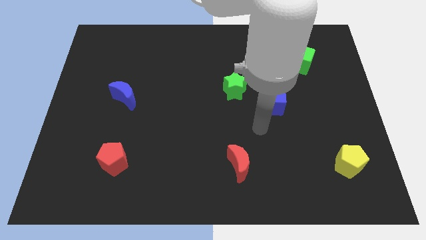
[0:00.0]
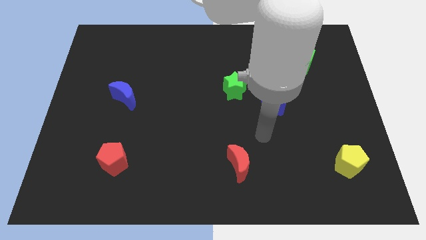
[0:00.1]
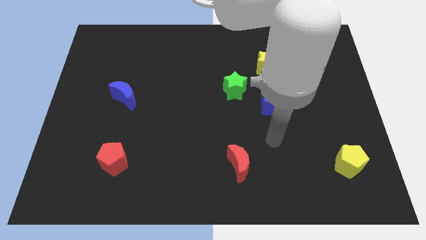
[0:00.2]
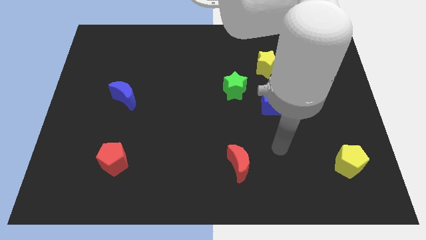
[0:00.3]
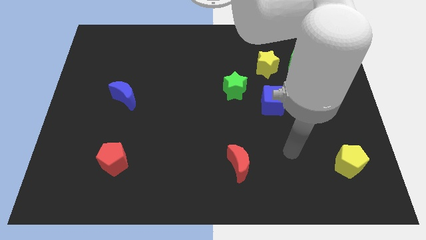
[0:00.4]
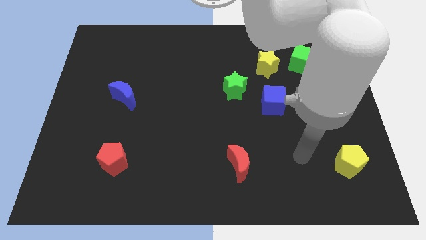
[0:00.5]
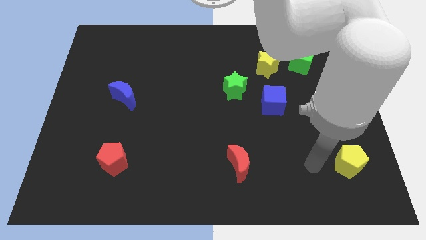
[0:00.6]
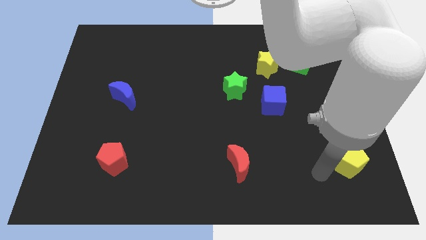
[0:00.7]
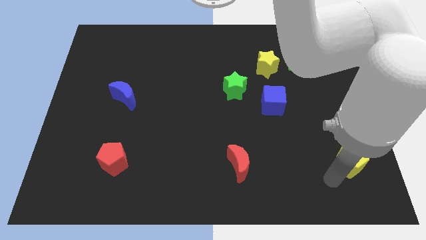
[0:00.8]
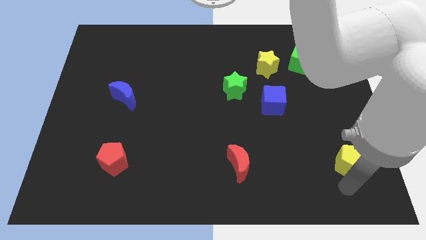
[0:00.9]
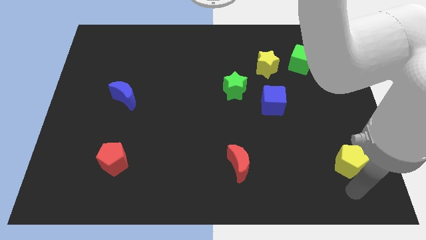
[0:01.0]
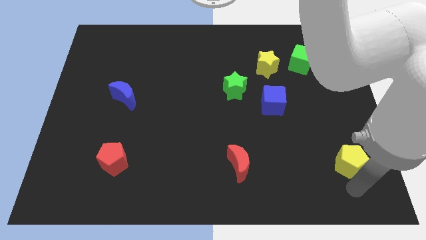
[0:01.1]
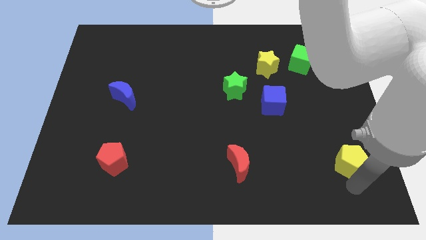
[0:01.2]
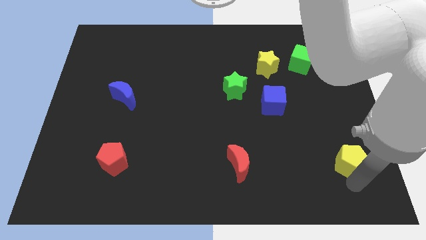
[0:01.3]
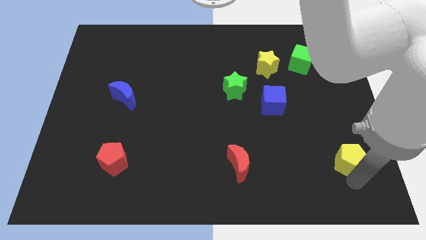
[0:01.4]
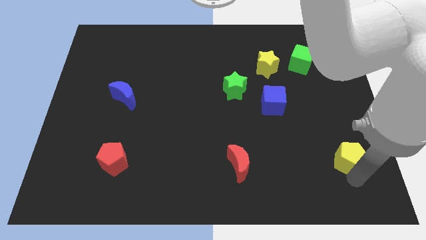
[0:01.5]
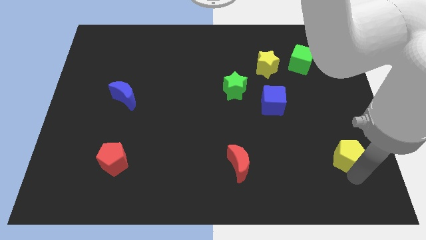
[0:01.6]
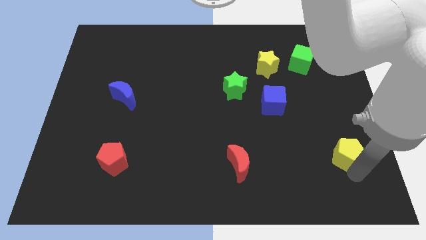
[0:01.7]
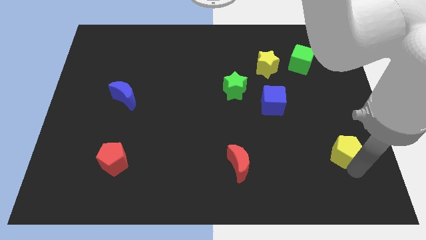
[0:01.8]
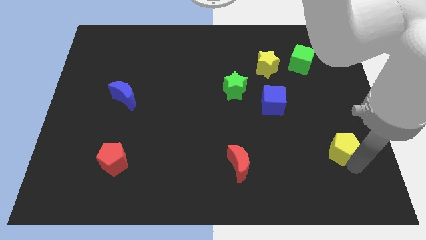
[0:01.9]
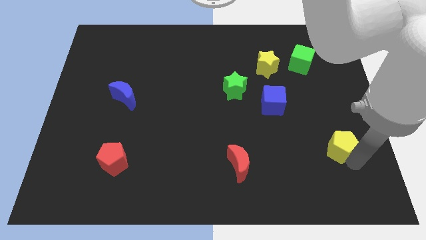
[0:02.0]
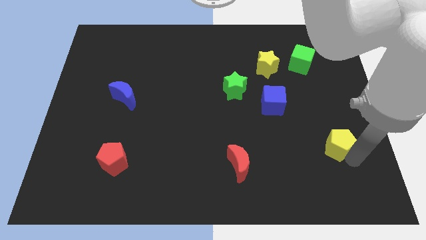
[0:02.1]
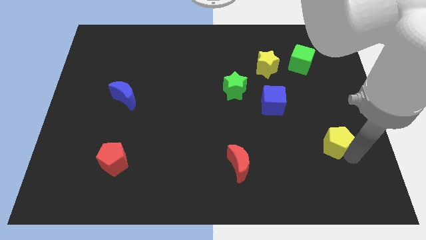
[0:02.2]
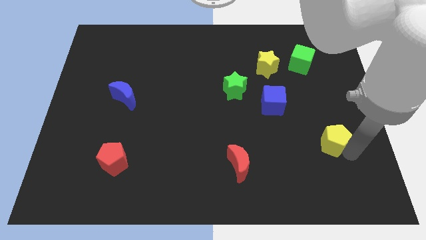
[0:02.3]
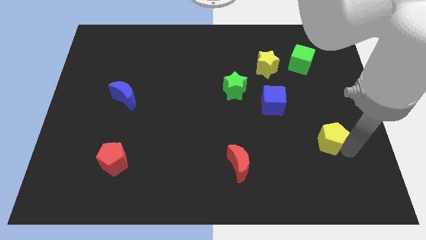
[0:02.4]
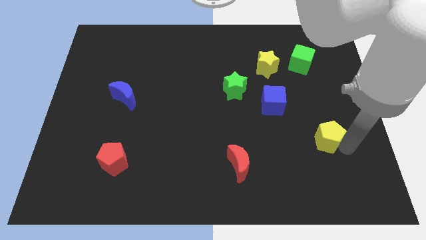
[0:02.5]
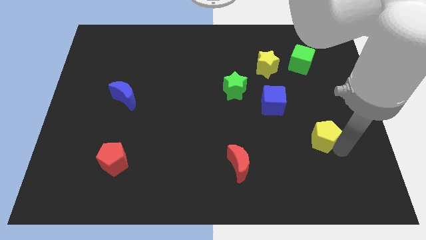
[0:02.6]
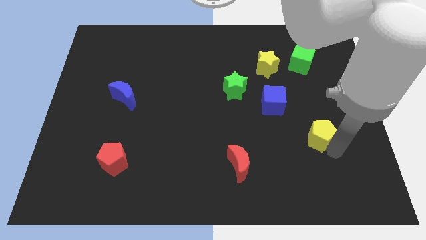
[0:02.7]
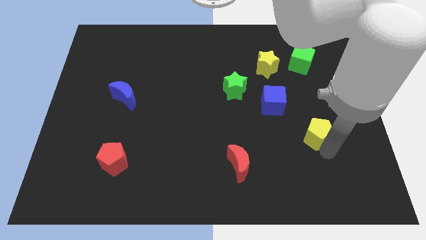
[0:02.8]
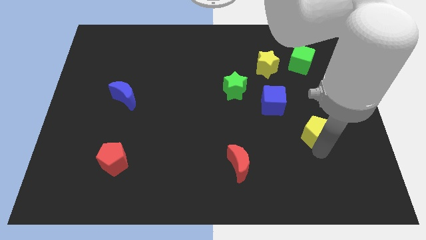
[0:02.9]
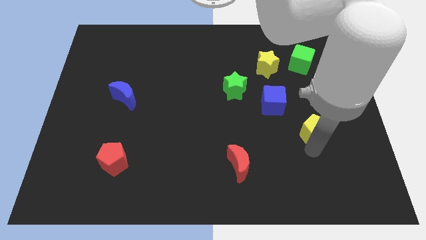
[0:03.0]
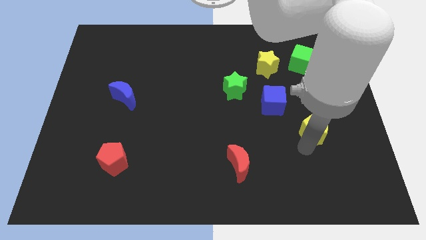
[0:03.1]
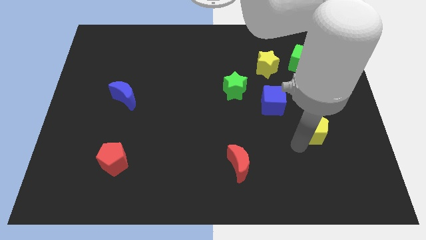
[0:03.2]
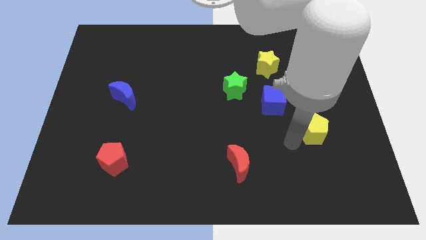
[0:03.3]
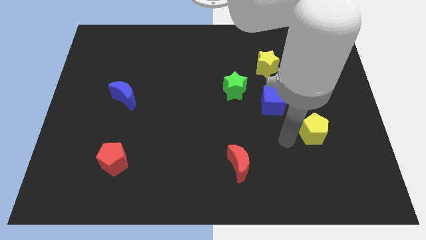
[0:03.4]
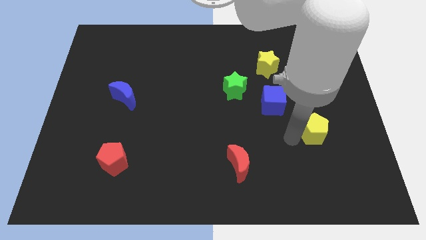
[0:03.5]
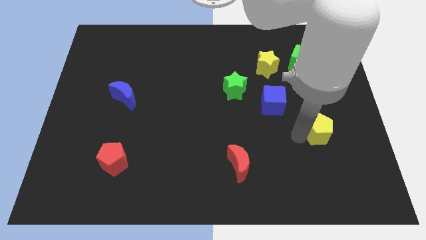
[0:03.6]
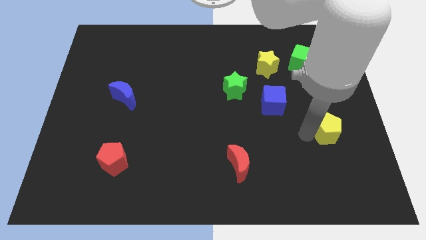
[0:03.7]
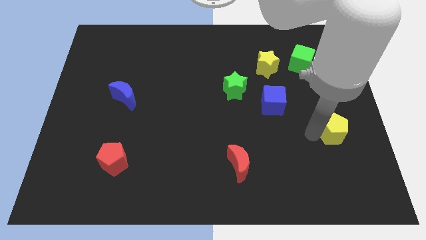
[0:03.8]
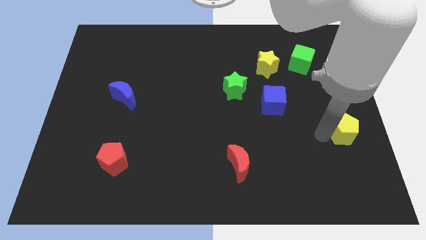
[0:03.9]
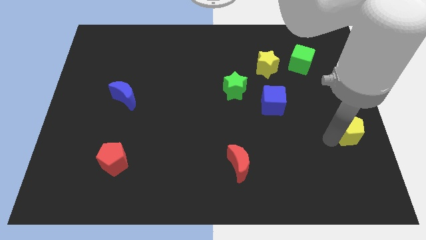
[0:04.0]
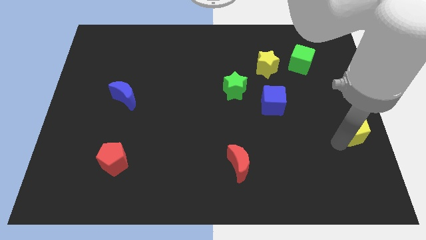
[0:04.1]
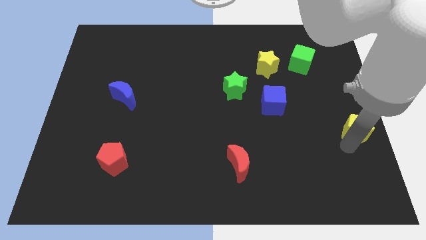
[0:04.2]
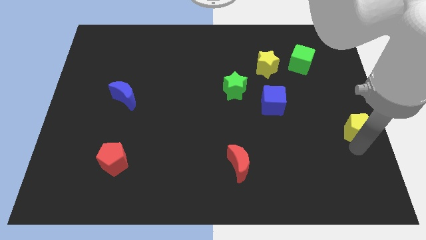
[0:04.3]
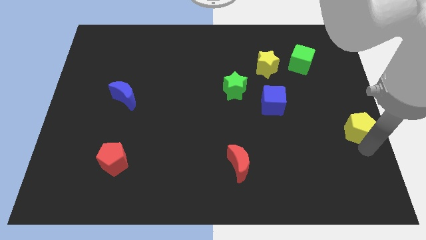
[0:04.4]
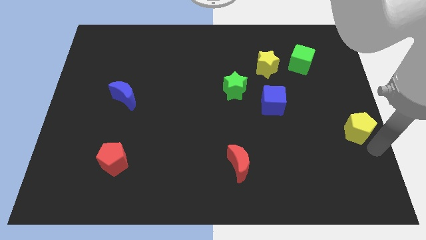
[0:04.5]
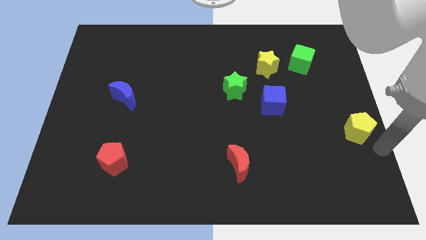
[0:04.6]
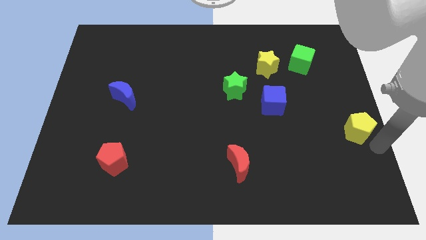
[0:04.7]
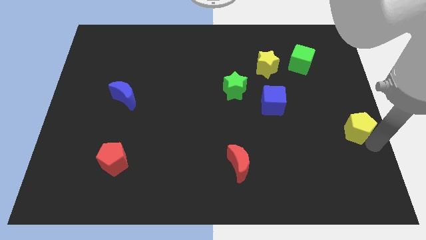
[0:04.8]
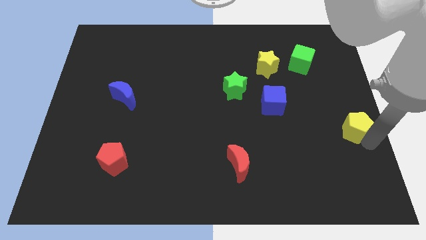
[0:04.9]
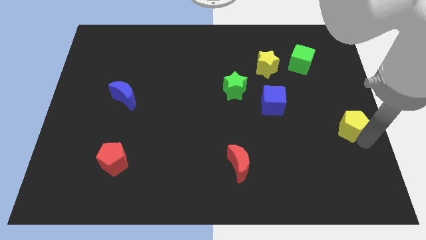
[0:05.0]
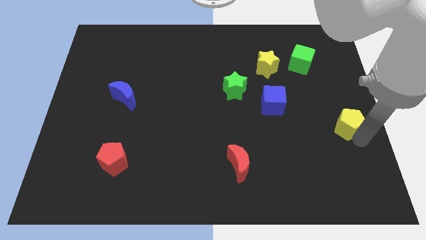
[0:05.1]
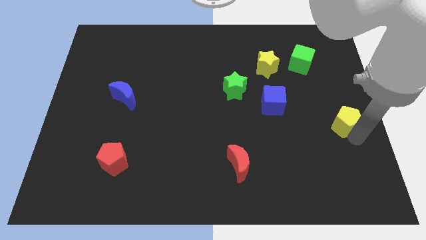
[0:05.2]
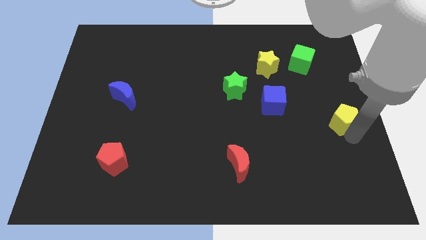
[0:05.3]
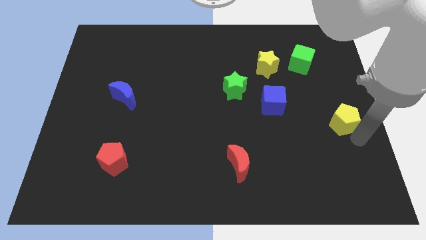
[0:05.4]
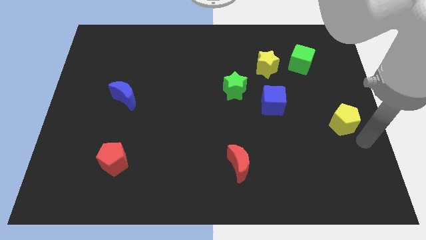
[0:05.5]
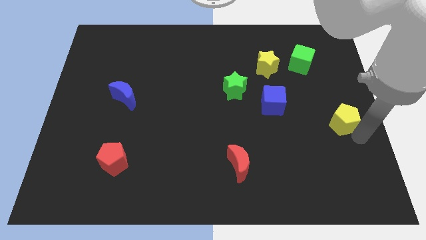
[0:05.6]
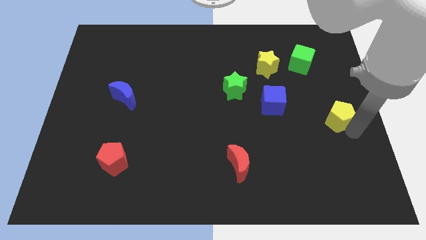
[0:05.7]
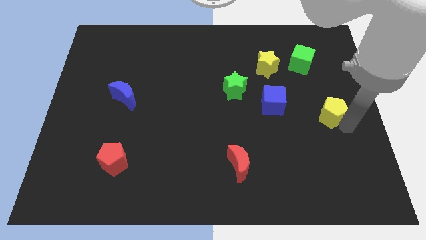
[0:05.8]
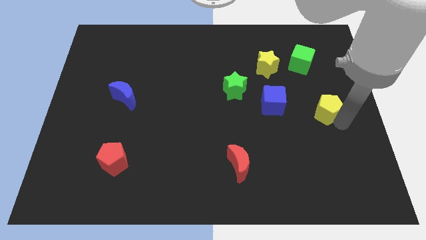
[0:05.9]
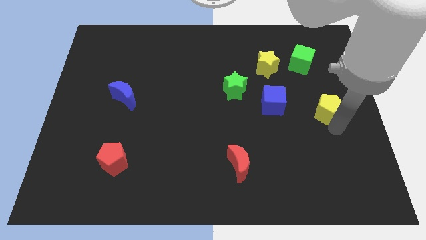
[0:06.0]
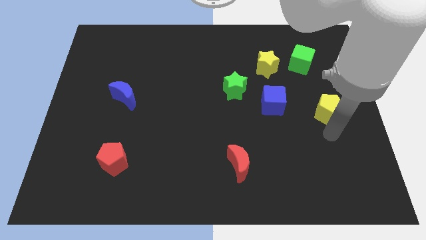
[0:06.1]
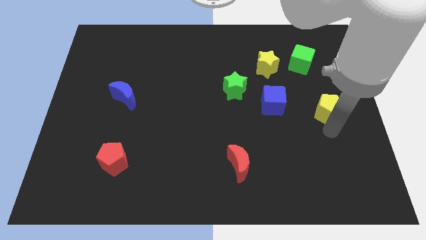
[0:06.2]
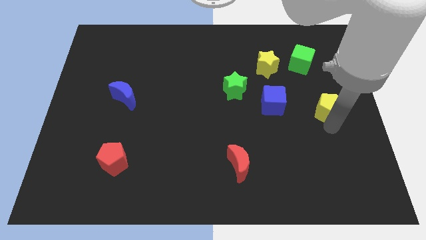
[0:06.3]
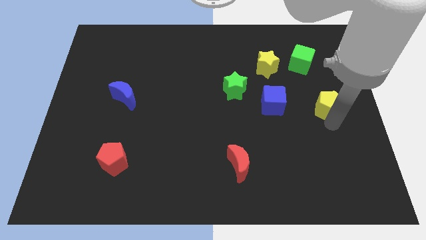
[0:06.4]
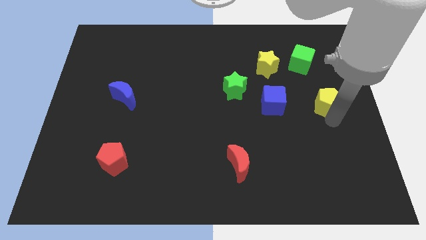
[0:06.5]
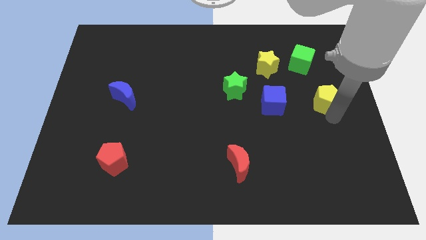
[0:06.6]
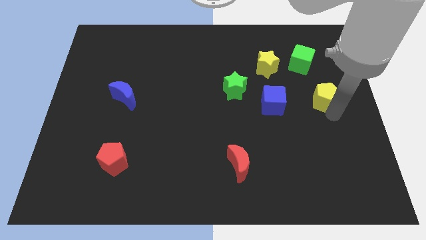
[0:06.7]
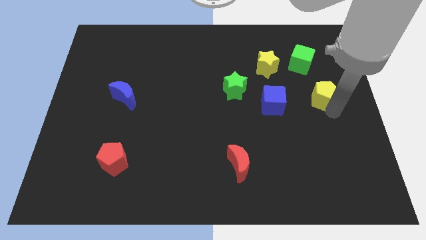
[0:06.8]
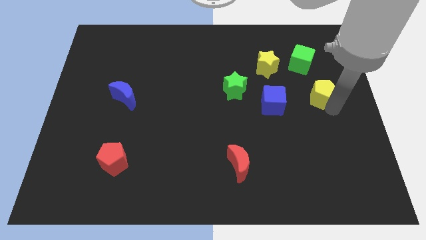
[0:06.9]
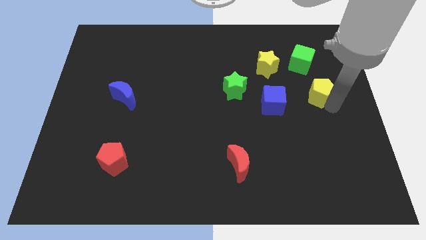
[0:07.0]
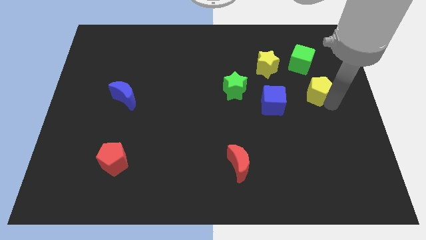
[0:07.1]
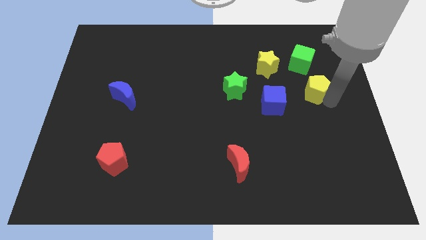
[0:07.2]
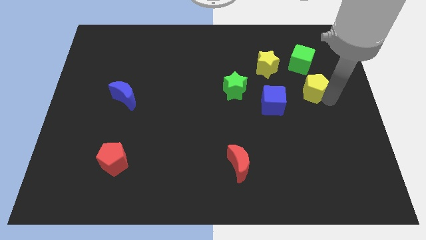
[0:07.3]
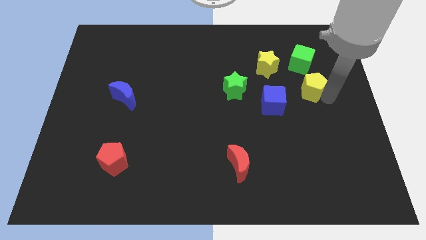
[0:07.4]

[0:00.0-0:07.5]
move the yellow pentagon up

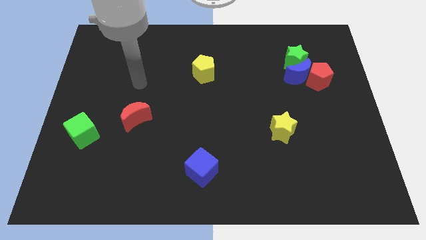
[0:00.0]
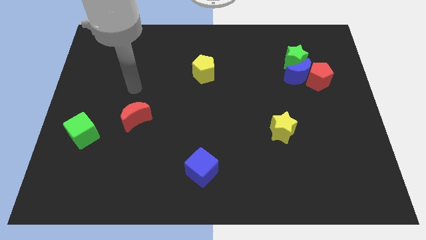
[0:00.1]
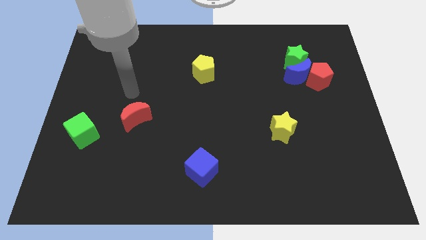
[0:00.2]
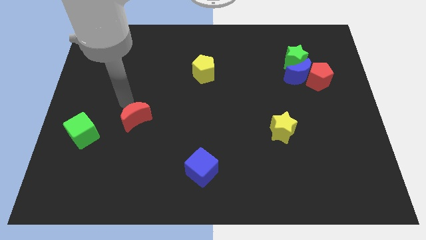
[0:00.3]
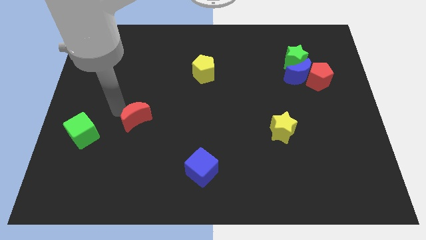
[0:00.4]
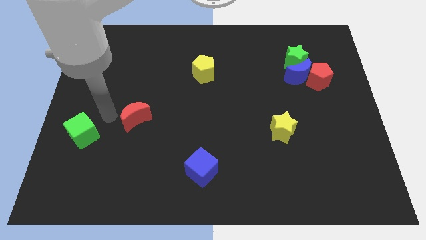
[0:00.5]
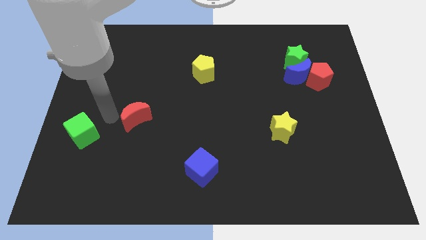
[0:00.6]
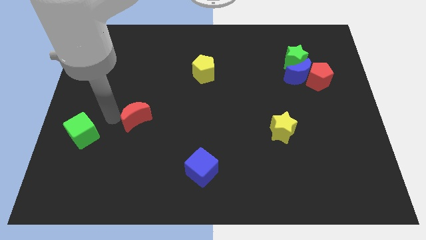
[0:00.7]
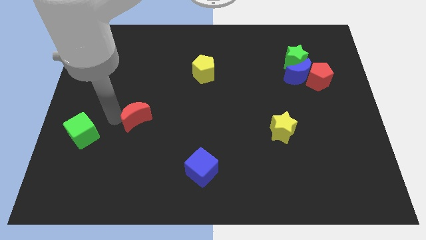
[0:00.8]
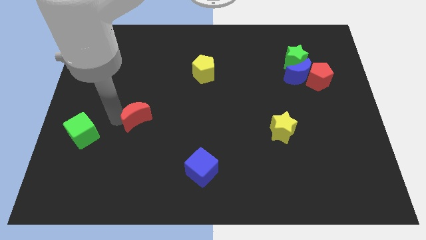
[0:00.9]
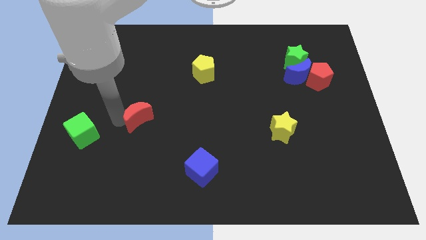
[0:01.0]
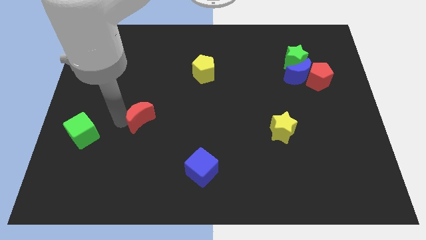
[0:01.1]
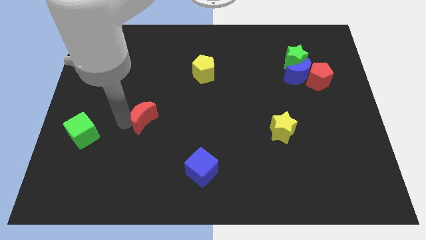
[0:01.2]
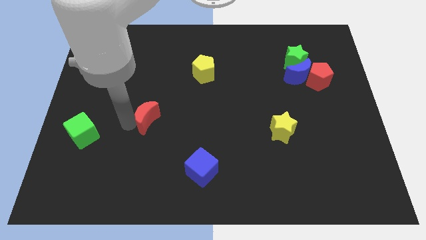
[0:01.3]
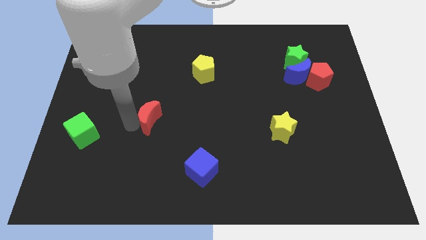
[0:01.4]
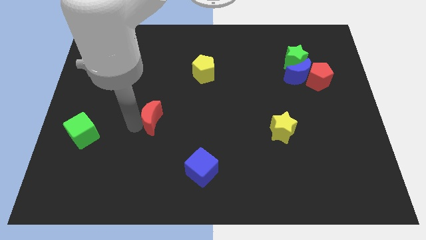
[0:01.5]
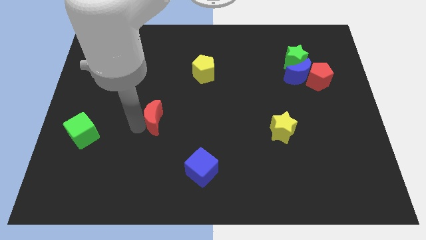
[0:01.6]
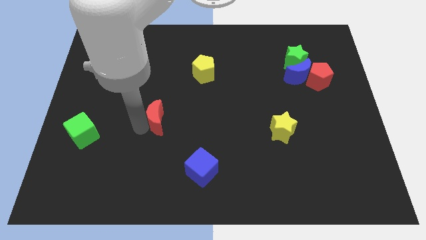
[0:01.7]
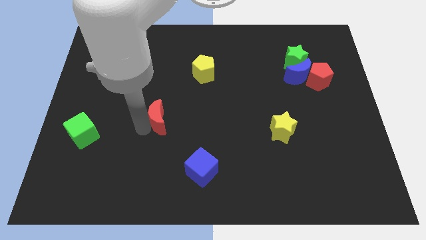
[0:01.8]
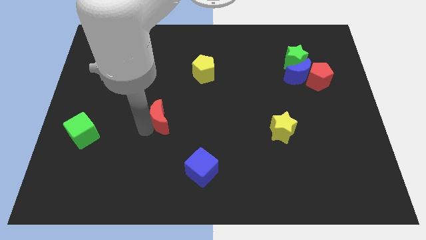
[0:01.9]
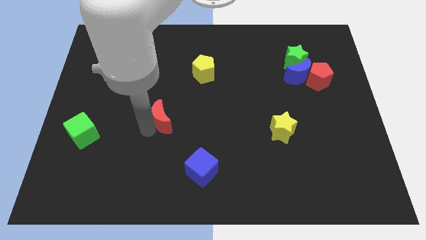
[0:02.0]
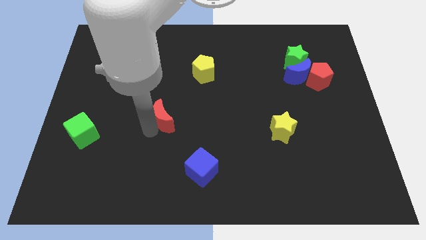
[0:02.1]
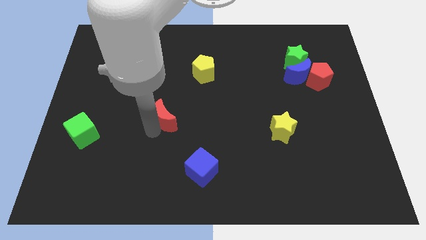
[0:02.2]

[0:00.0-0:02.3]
move the red moon a little right
